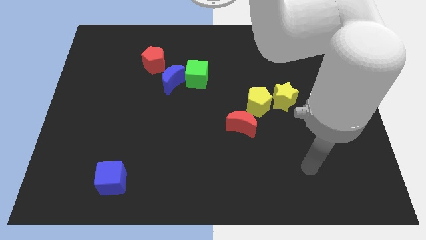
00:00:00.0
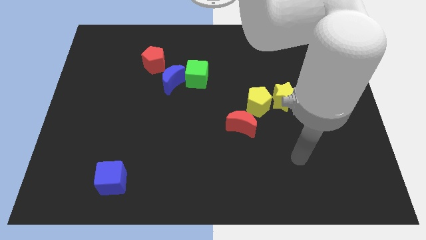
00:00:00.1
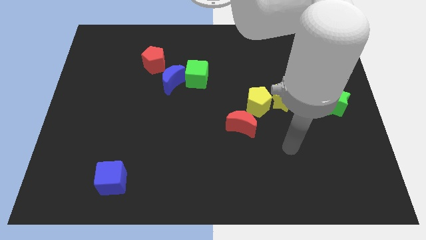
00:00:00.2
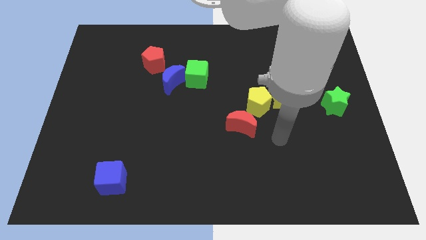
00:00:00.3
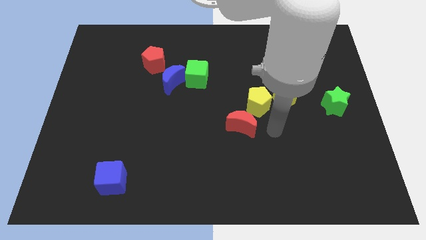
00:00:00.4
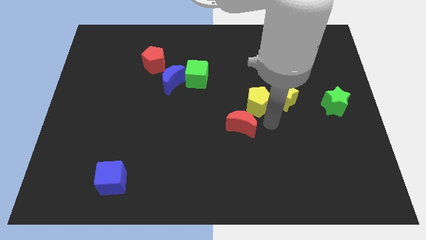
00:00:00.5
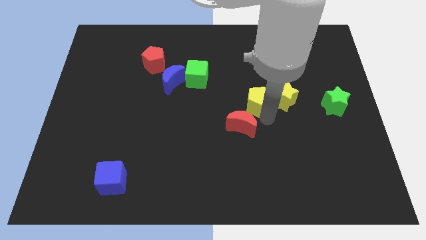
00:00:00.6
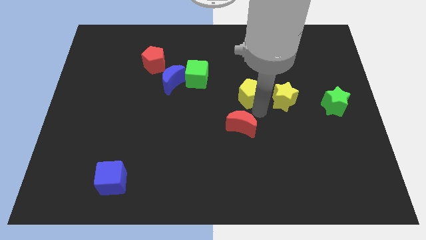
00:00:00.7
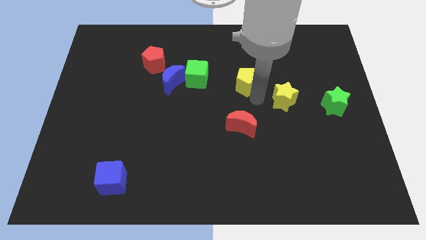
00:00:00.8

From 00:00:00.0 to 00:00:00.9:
separate the yellow star from the yellow pentagon

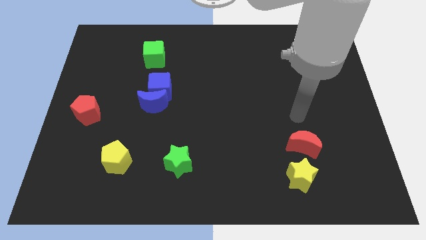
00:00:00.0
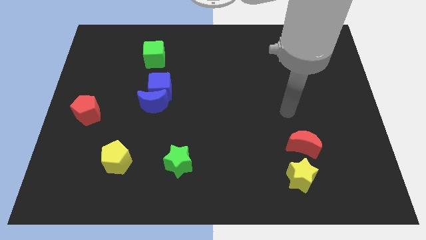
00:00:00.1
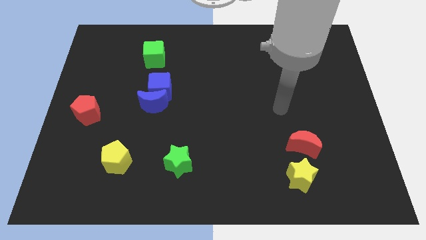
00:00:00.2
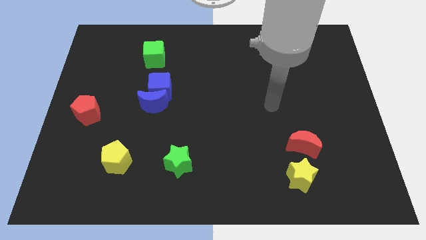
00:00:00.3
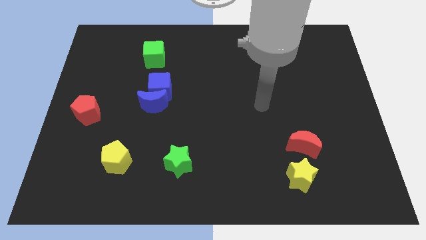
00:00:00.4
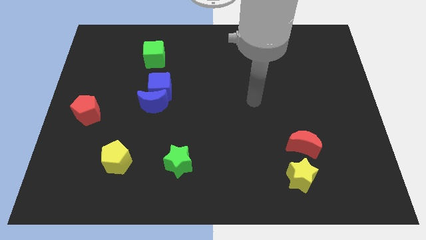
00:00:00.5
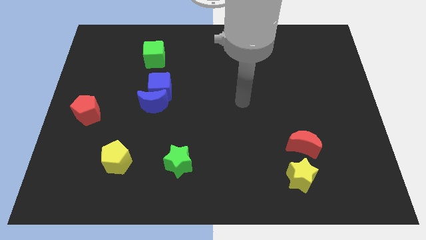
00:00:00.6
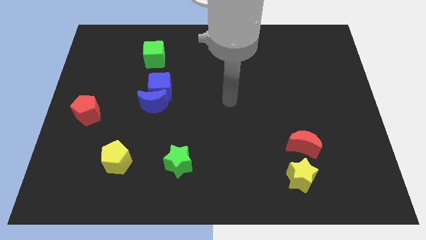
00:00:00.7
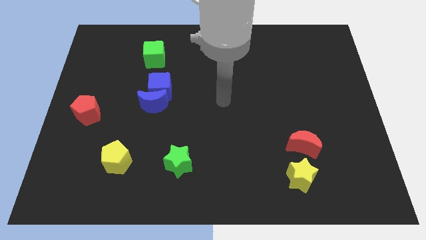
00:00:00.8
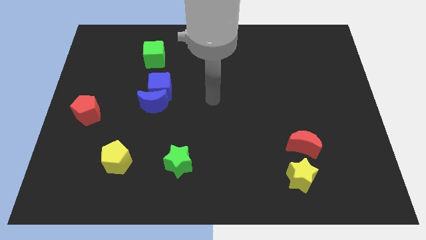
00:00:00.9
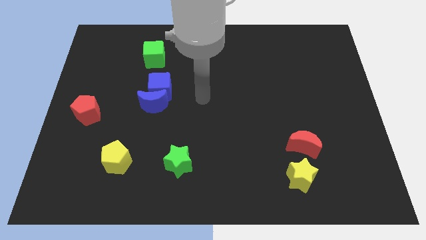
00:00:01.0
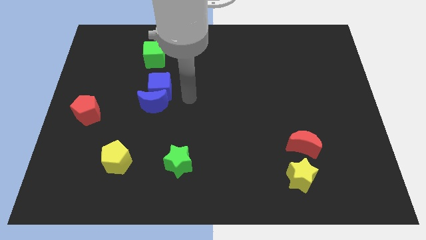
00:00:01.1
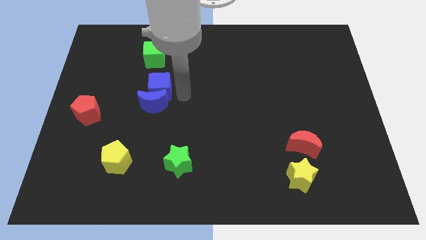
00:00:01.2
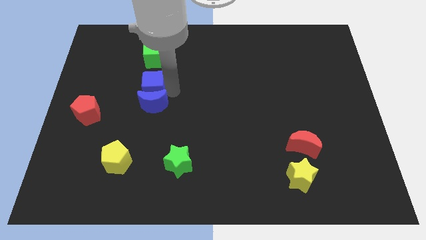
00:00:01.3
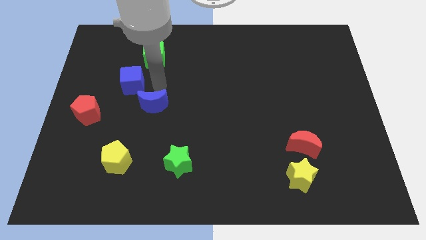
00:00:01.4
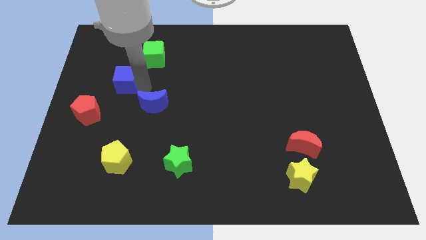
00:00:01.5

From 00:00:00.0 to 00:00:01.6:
separate the blue moon from the blue cube

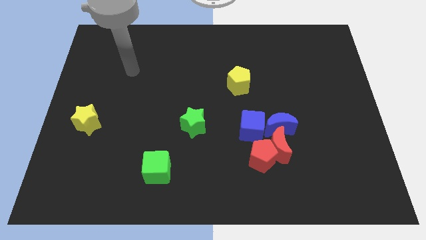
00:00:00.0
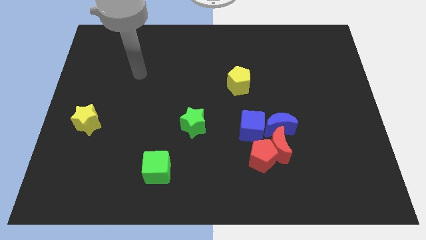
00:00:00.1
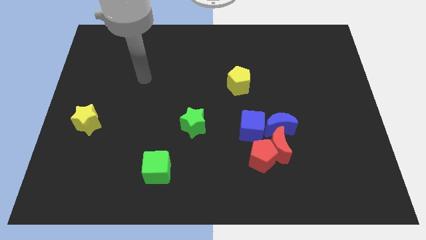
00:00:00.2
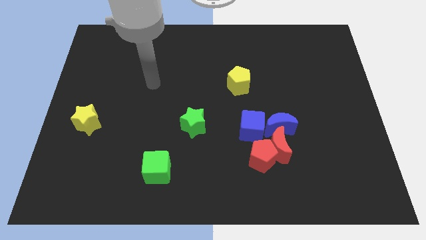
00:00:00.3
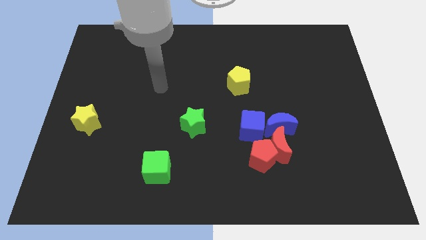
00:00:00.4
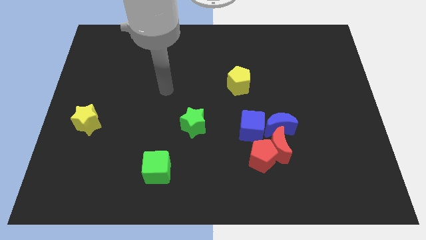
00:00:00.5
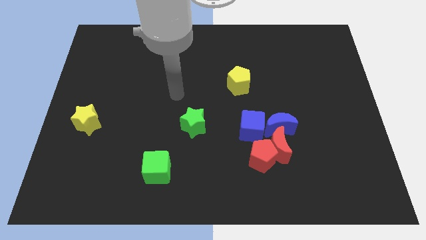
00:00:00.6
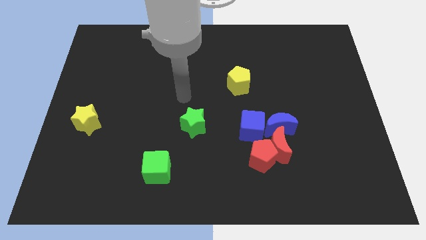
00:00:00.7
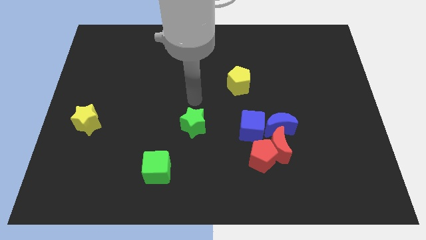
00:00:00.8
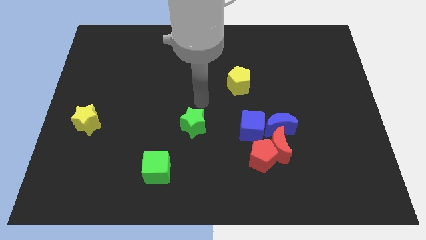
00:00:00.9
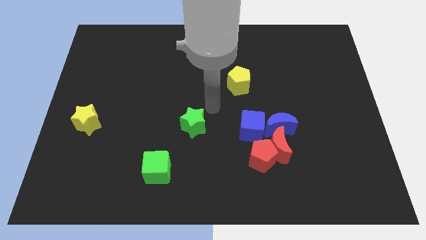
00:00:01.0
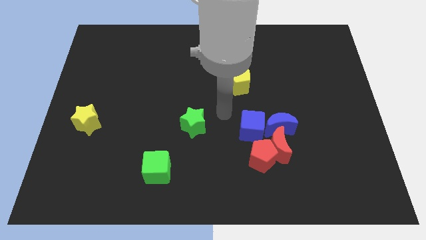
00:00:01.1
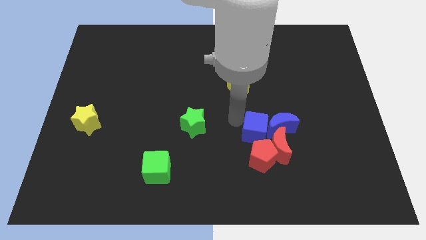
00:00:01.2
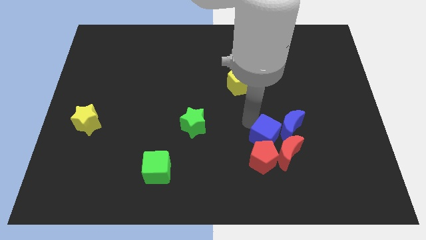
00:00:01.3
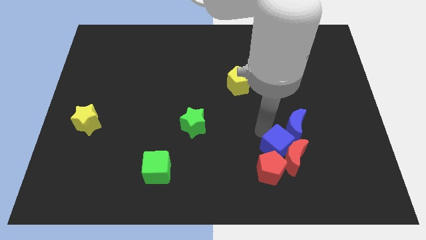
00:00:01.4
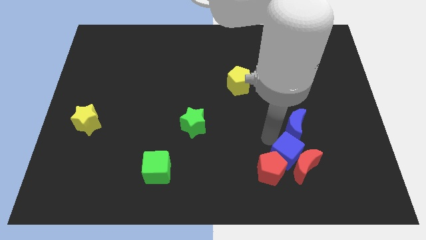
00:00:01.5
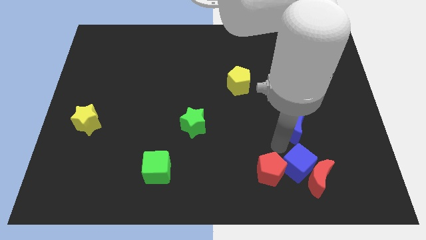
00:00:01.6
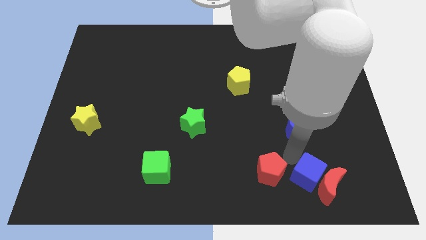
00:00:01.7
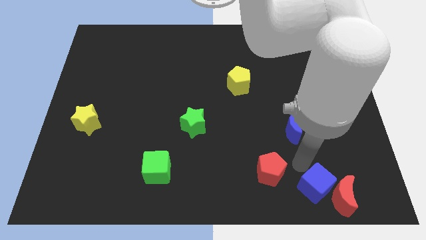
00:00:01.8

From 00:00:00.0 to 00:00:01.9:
move the red moon away from the clump

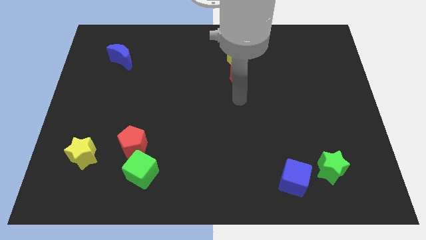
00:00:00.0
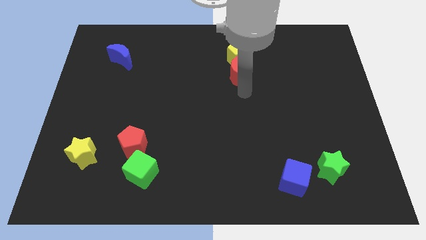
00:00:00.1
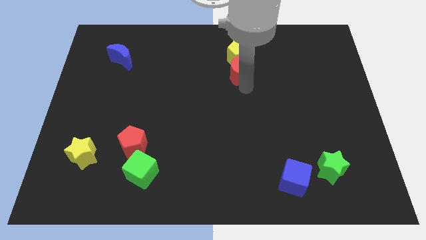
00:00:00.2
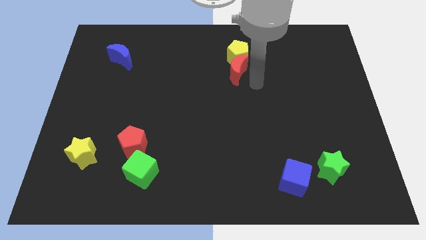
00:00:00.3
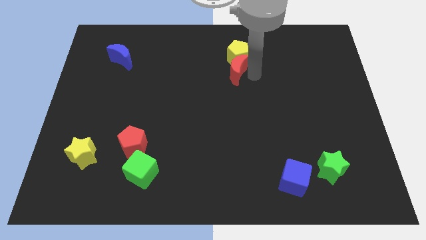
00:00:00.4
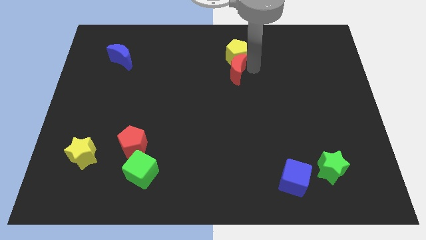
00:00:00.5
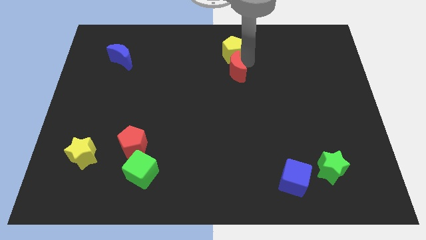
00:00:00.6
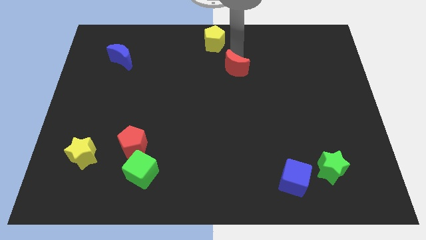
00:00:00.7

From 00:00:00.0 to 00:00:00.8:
move the red moon away from the yellow pentagon

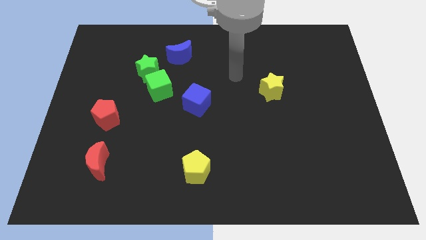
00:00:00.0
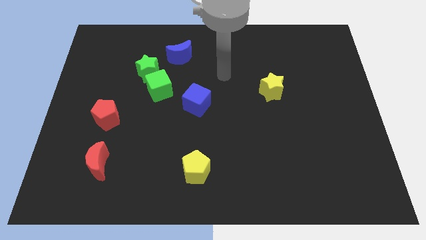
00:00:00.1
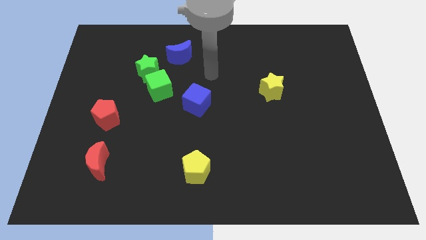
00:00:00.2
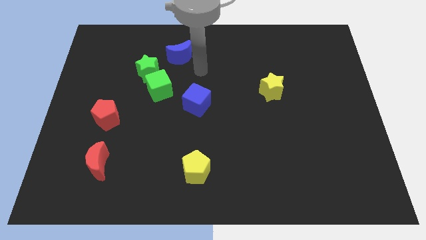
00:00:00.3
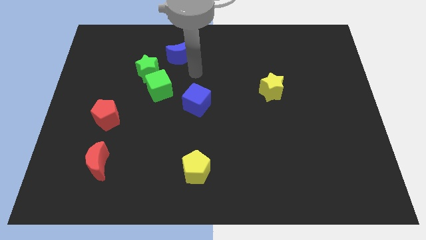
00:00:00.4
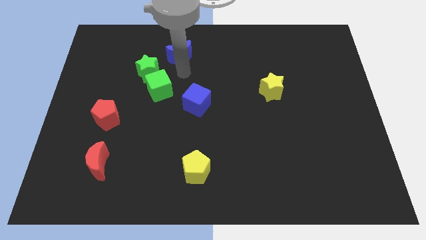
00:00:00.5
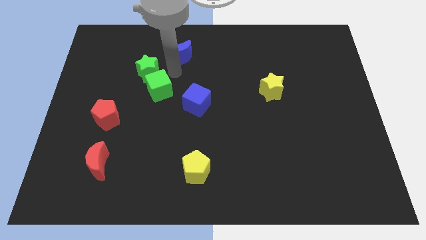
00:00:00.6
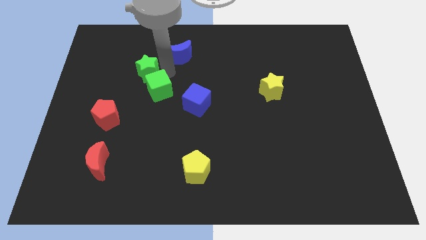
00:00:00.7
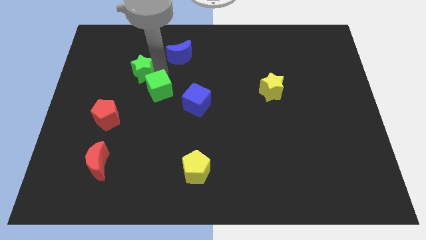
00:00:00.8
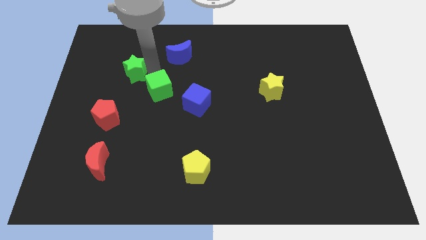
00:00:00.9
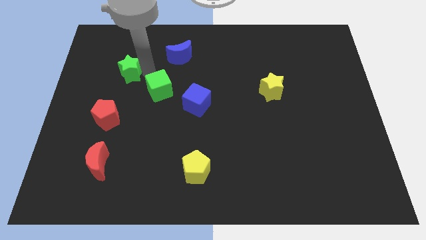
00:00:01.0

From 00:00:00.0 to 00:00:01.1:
move the green star away from the green cube and blue moon

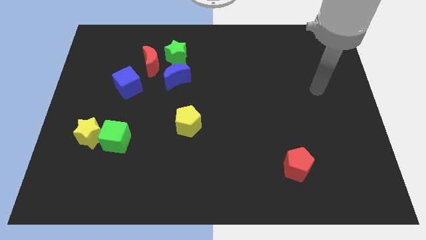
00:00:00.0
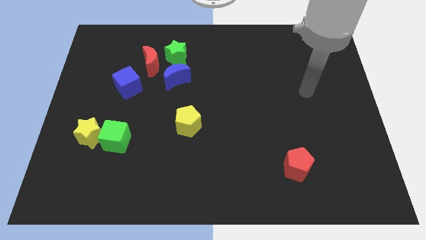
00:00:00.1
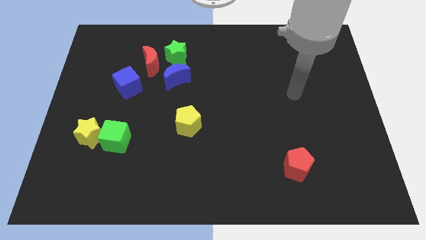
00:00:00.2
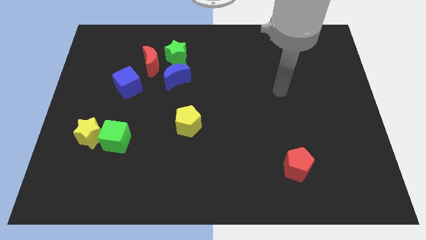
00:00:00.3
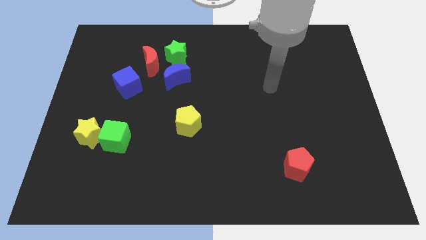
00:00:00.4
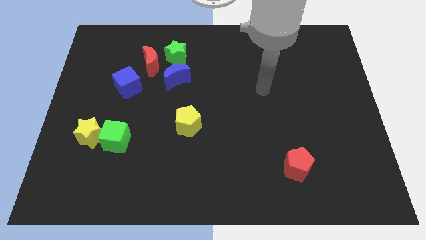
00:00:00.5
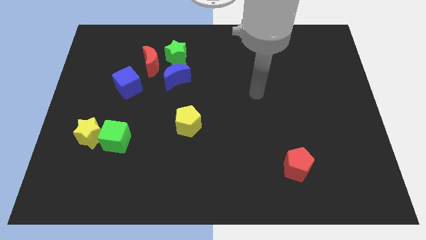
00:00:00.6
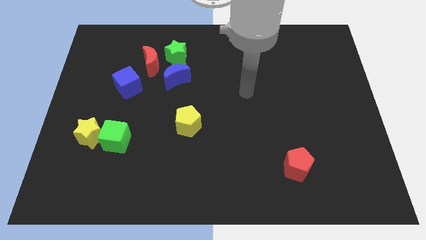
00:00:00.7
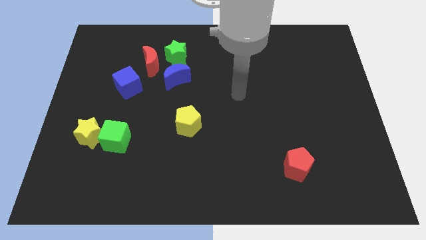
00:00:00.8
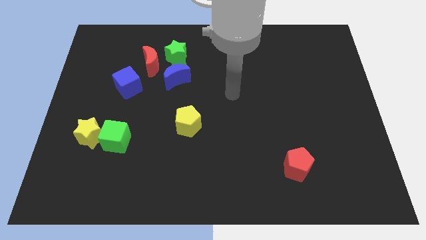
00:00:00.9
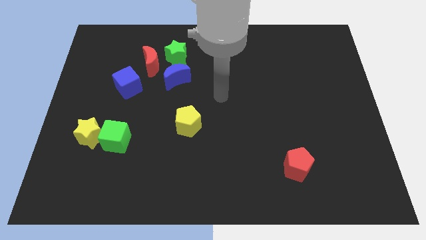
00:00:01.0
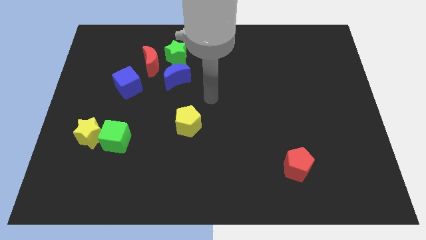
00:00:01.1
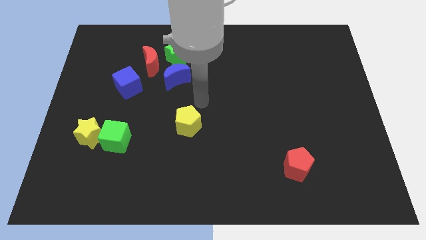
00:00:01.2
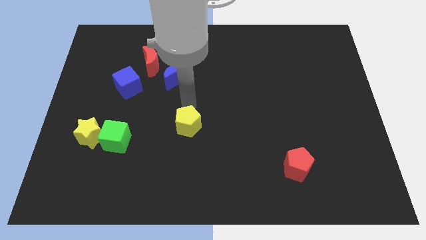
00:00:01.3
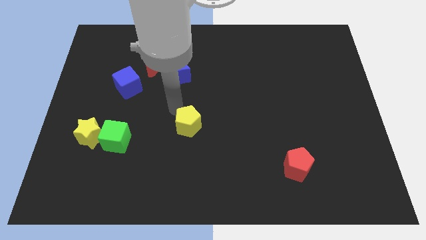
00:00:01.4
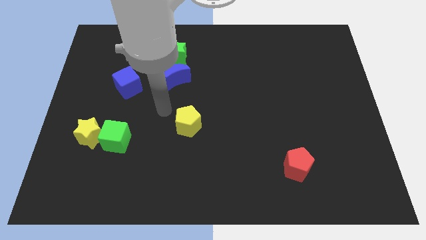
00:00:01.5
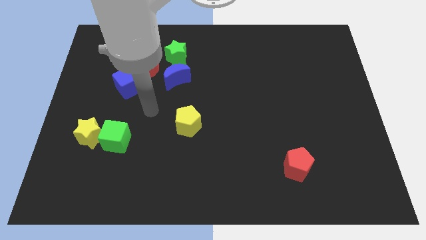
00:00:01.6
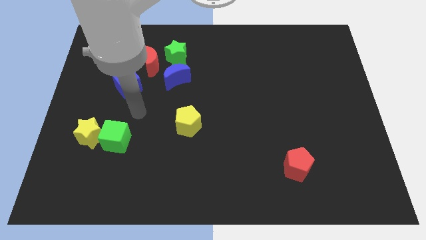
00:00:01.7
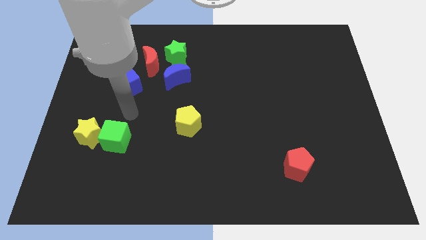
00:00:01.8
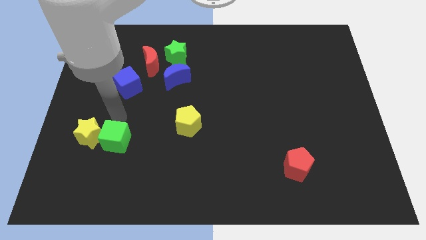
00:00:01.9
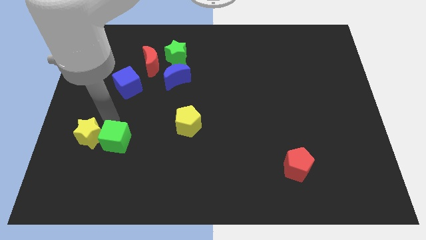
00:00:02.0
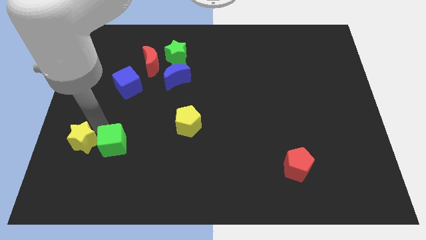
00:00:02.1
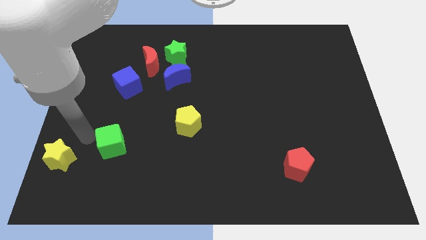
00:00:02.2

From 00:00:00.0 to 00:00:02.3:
separate the green cube from the yellow star

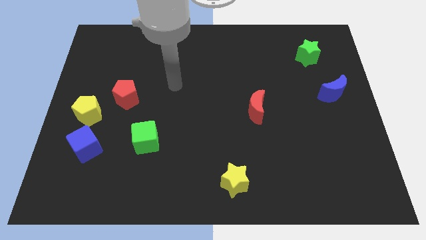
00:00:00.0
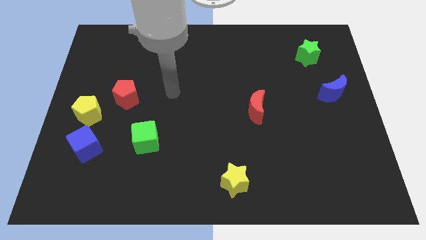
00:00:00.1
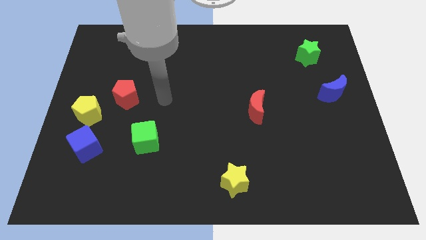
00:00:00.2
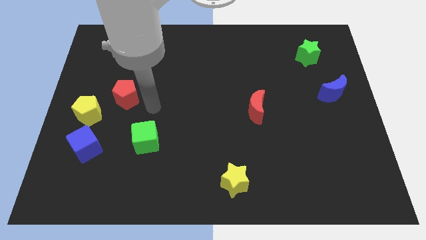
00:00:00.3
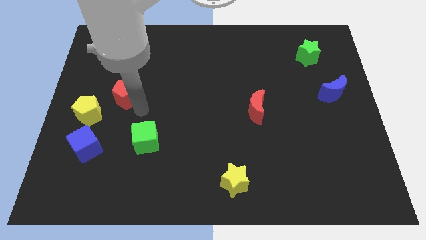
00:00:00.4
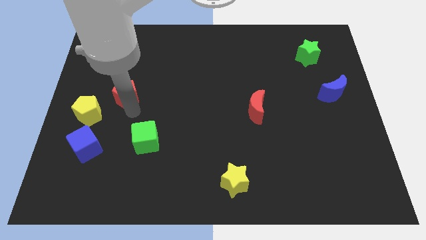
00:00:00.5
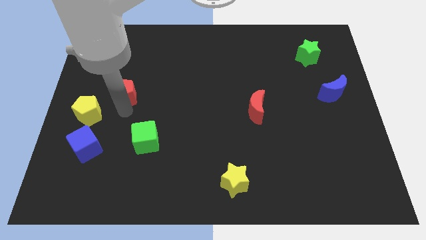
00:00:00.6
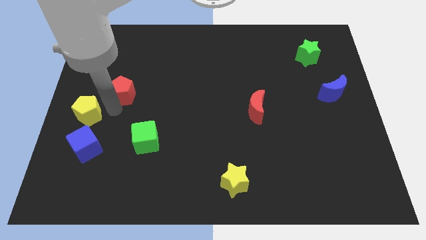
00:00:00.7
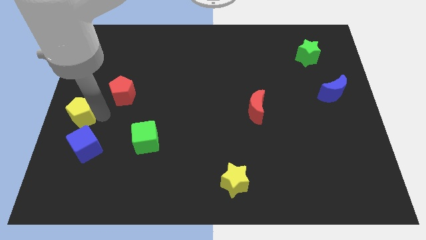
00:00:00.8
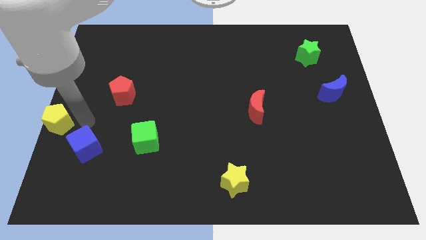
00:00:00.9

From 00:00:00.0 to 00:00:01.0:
separate the blue cube from the yellow pentagon
